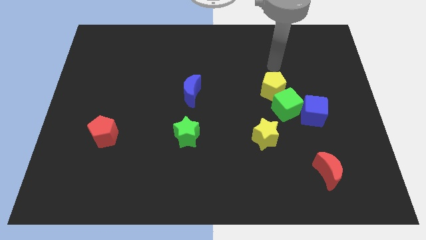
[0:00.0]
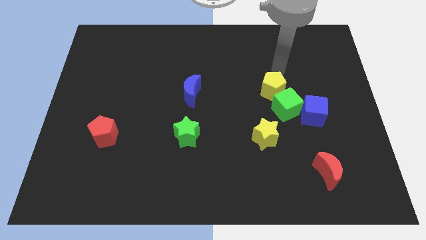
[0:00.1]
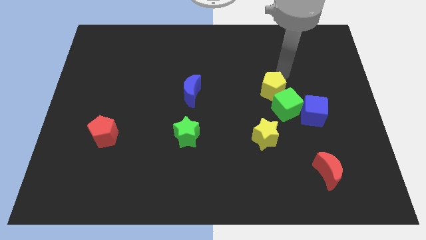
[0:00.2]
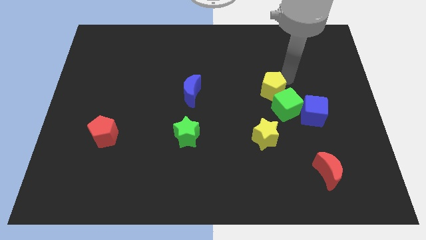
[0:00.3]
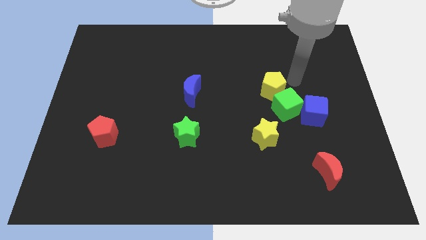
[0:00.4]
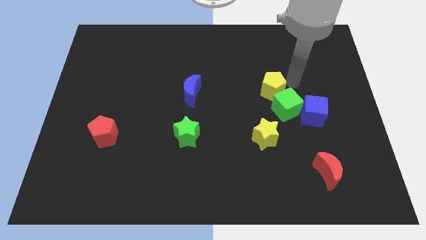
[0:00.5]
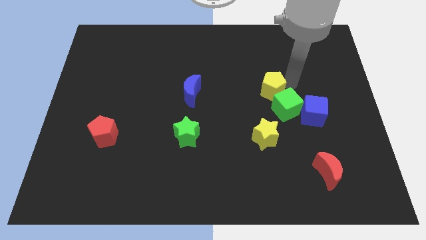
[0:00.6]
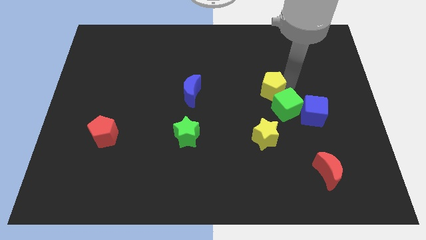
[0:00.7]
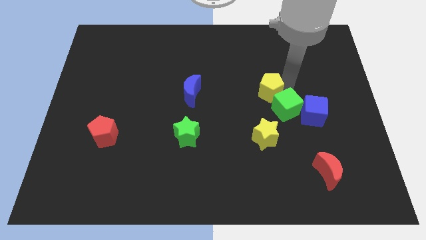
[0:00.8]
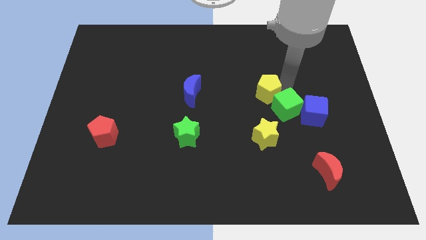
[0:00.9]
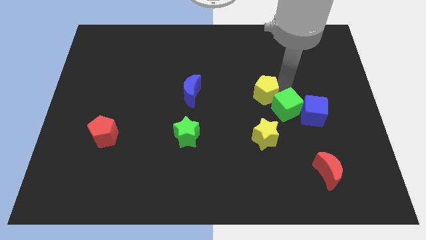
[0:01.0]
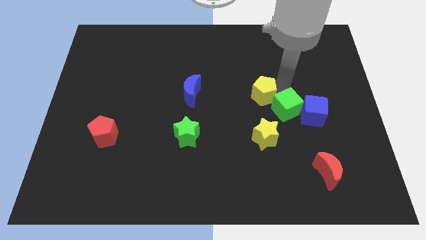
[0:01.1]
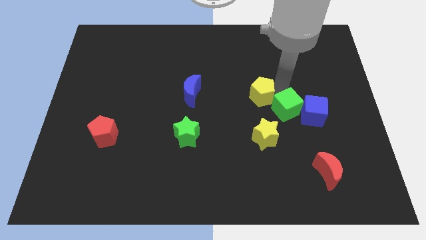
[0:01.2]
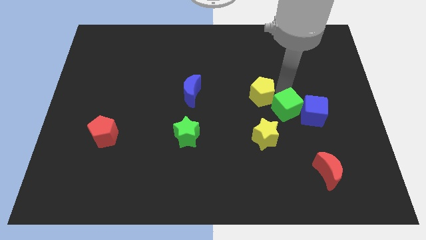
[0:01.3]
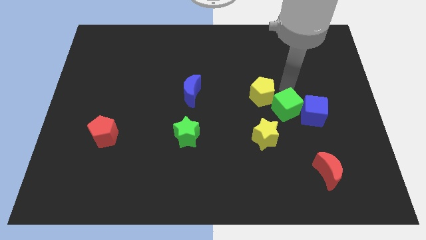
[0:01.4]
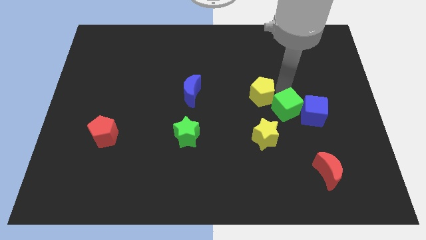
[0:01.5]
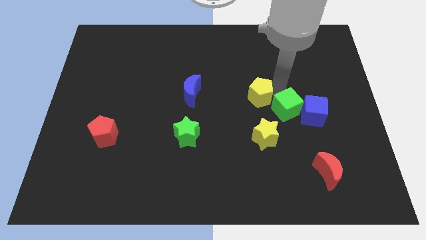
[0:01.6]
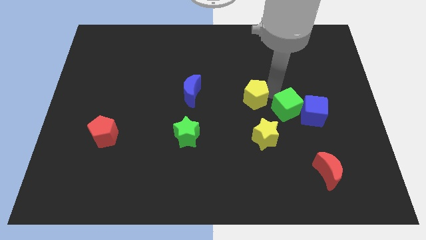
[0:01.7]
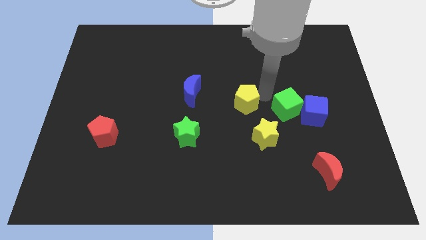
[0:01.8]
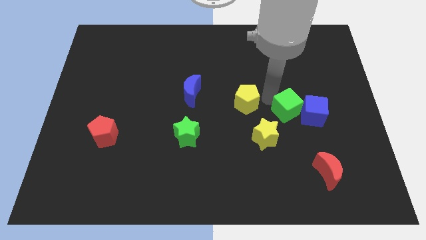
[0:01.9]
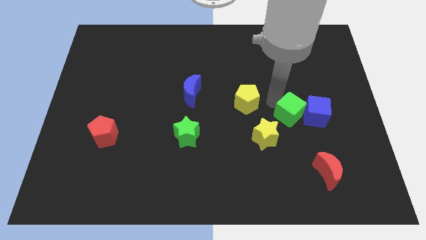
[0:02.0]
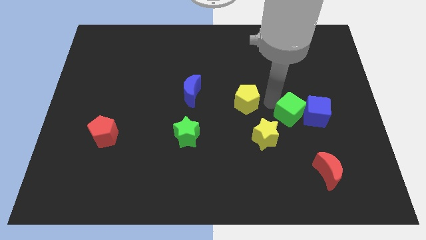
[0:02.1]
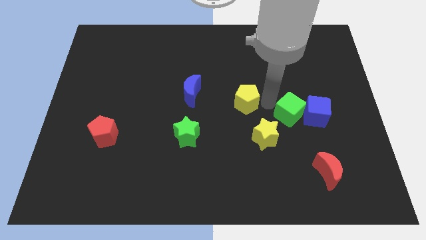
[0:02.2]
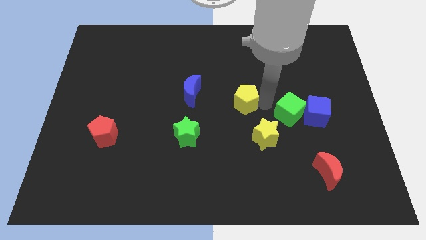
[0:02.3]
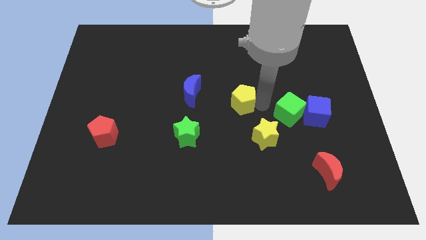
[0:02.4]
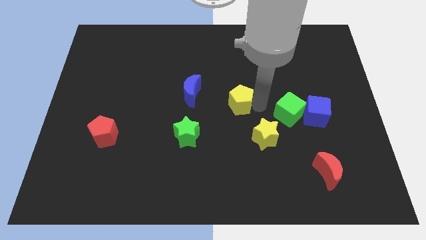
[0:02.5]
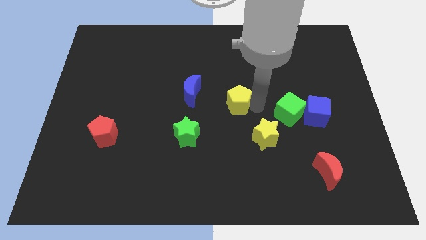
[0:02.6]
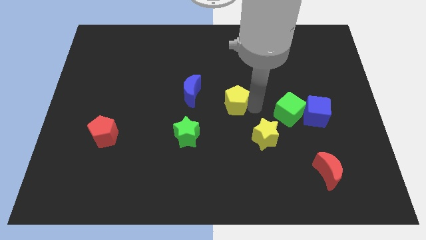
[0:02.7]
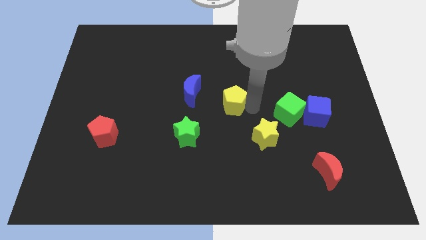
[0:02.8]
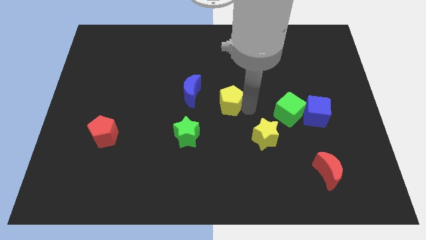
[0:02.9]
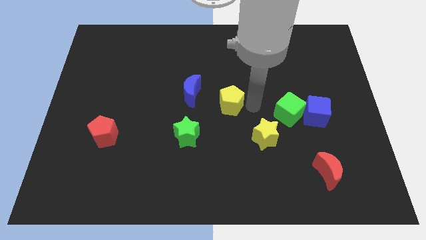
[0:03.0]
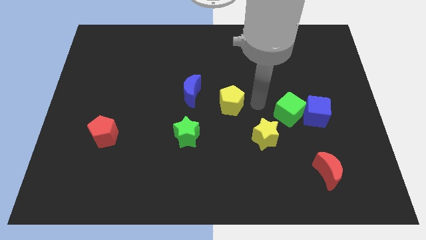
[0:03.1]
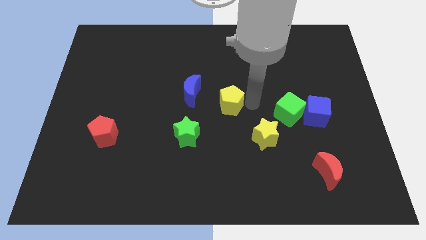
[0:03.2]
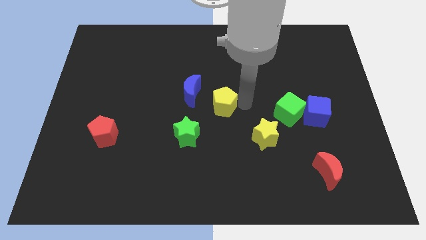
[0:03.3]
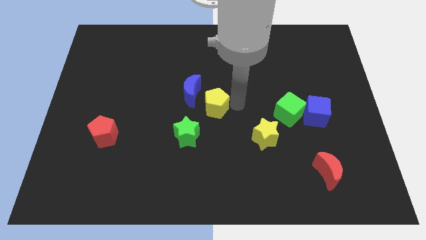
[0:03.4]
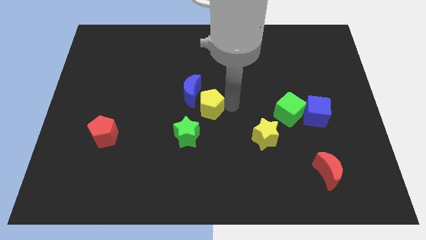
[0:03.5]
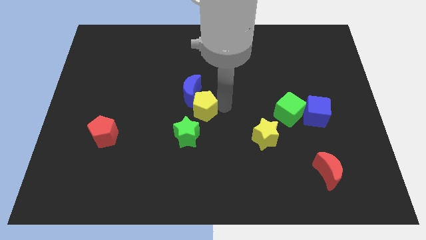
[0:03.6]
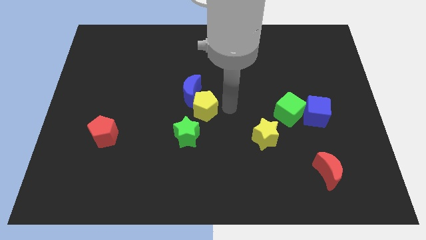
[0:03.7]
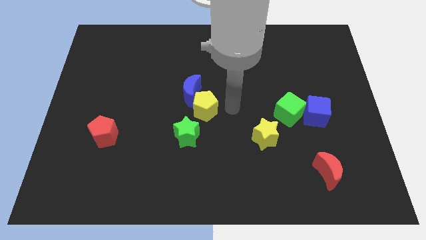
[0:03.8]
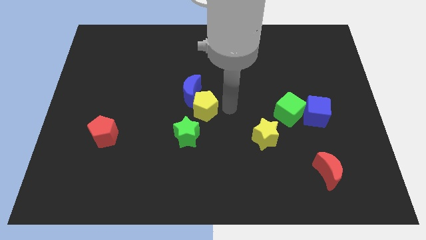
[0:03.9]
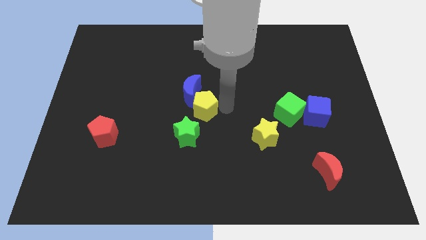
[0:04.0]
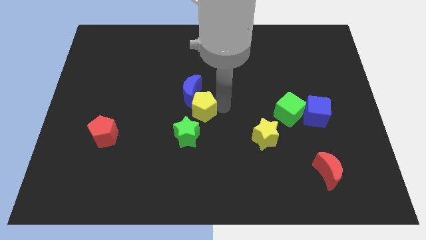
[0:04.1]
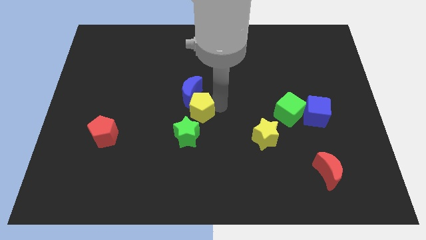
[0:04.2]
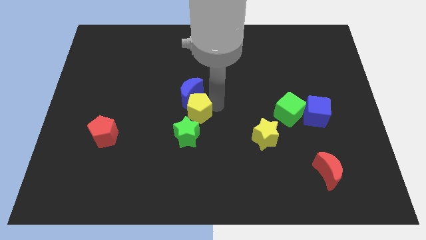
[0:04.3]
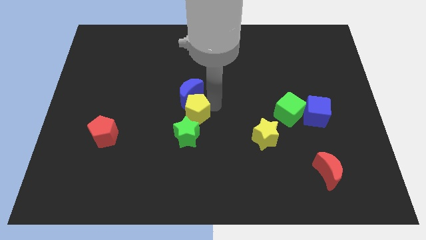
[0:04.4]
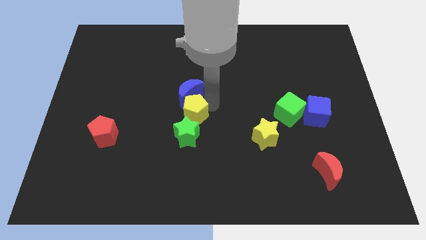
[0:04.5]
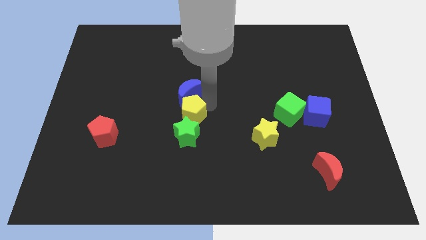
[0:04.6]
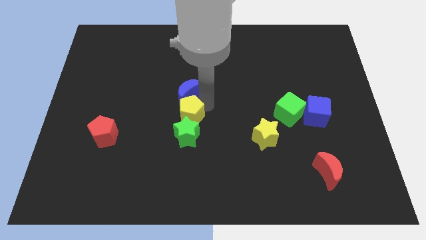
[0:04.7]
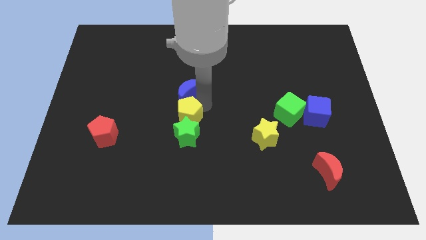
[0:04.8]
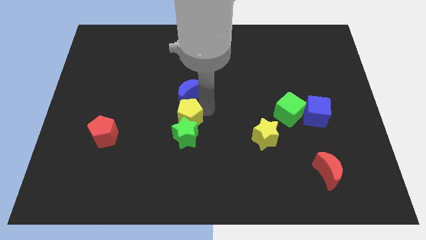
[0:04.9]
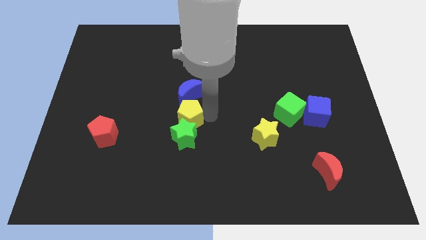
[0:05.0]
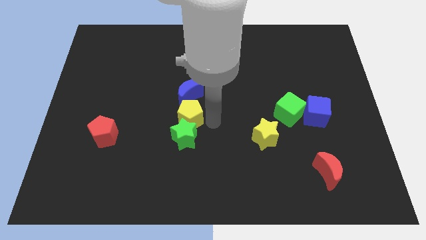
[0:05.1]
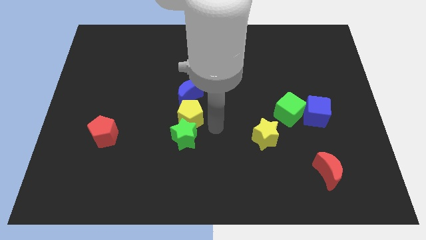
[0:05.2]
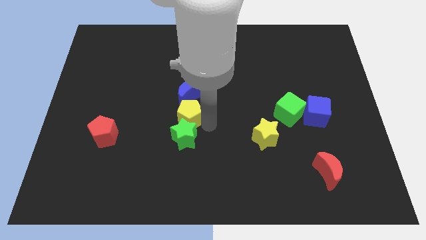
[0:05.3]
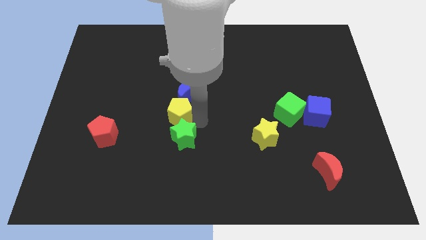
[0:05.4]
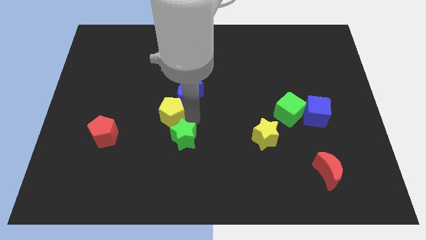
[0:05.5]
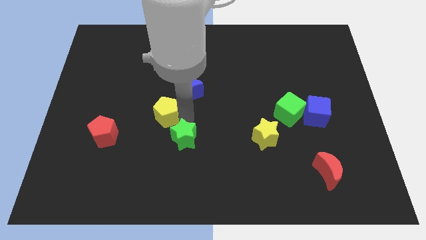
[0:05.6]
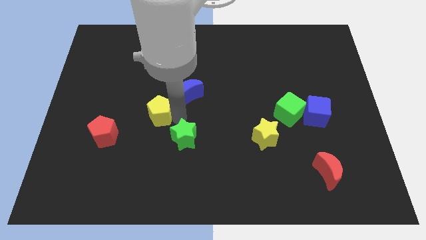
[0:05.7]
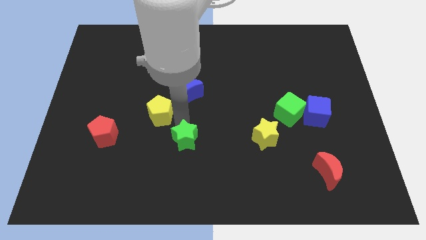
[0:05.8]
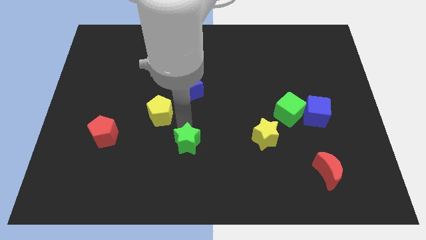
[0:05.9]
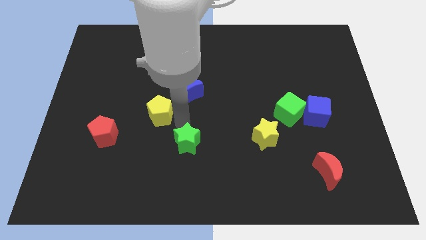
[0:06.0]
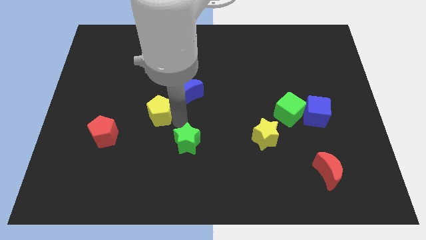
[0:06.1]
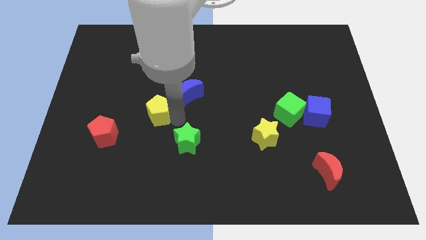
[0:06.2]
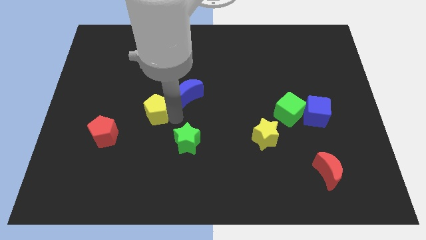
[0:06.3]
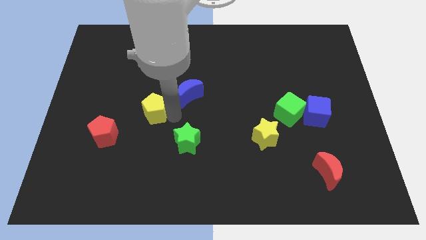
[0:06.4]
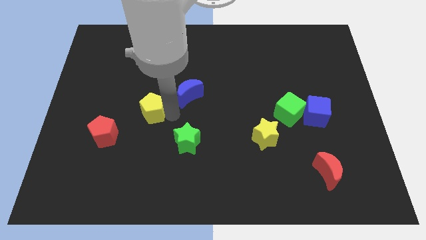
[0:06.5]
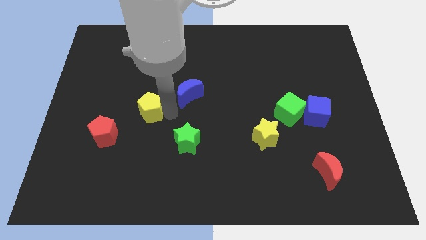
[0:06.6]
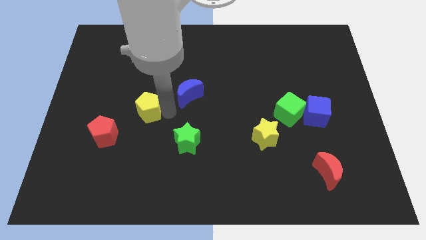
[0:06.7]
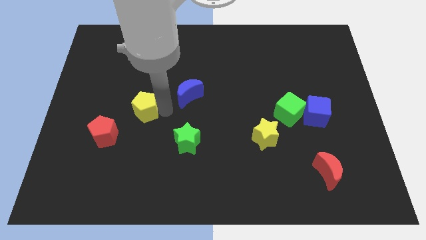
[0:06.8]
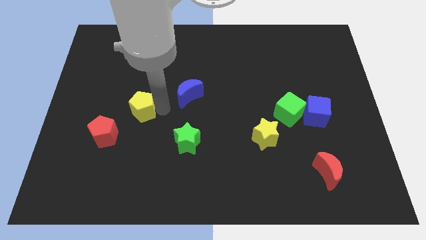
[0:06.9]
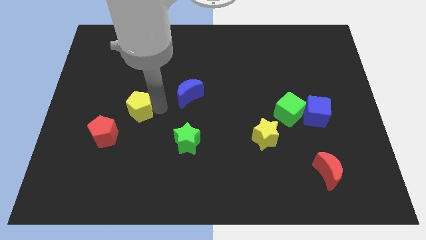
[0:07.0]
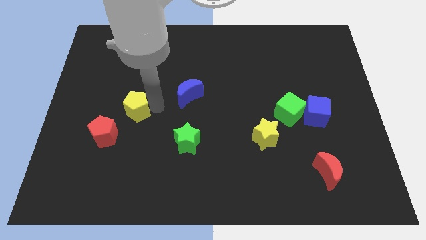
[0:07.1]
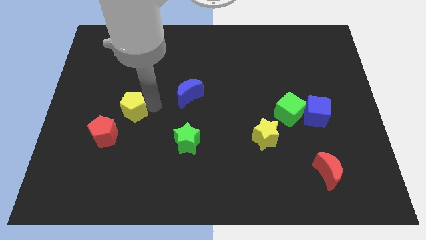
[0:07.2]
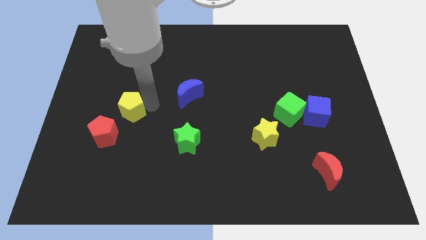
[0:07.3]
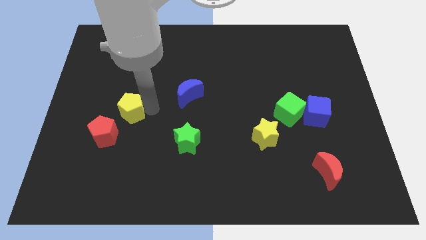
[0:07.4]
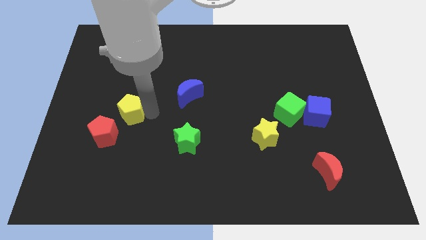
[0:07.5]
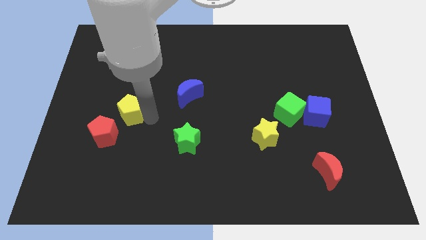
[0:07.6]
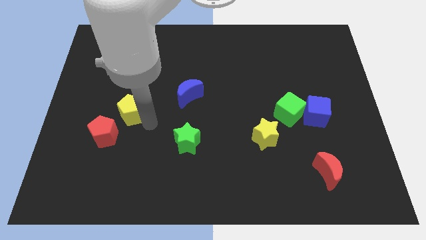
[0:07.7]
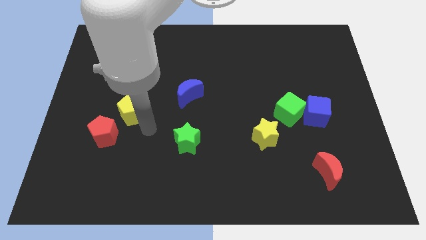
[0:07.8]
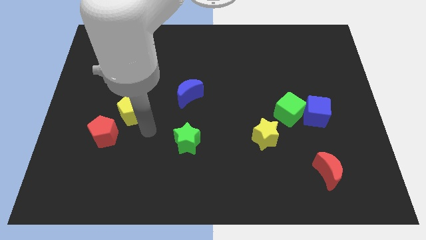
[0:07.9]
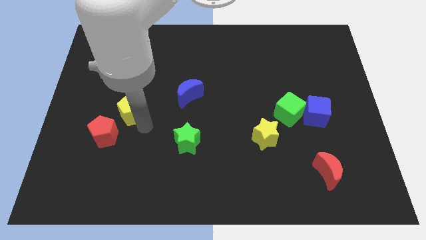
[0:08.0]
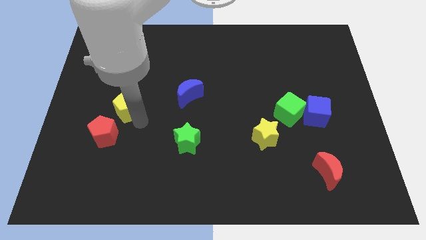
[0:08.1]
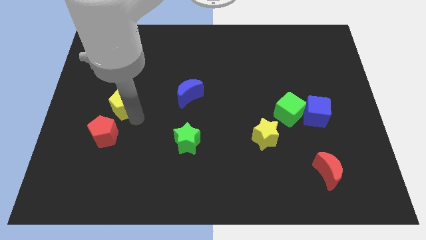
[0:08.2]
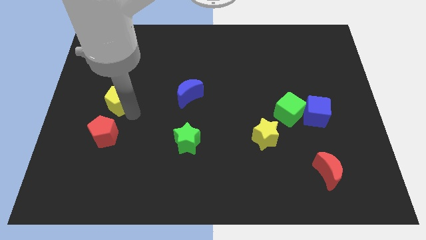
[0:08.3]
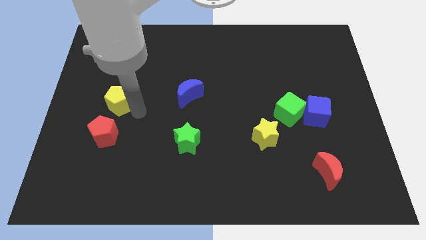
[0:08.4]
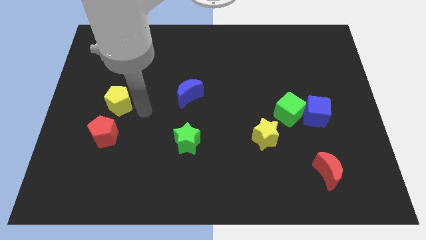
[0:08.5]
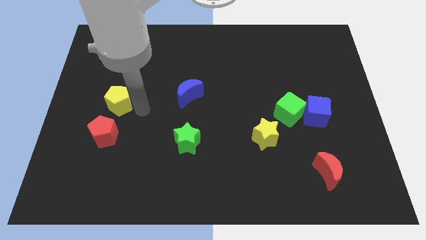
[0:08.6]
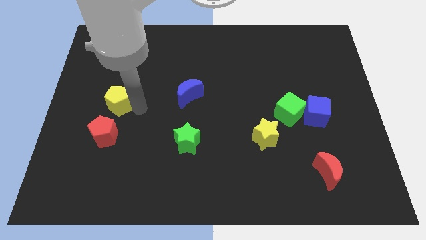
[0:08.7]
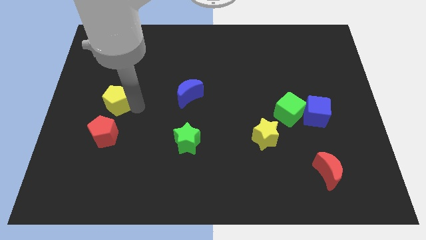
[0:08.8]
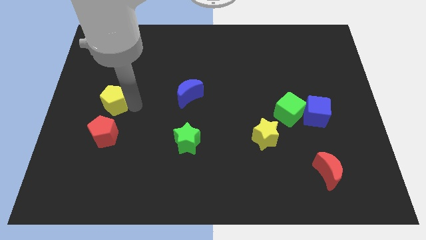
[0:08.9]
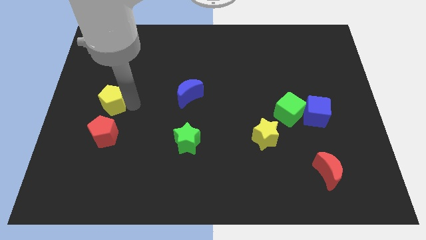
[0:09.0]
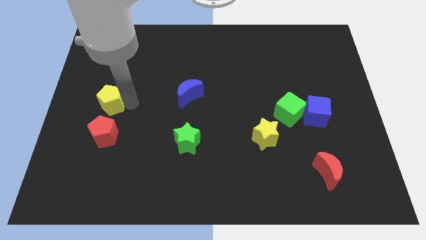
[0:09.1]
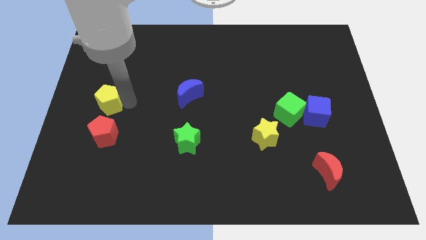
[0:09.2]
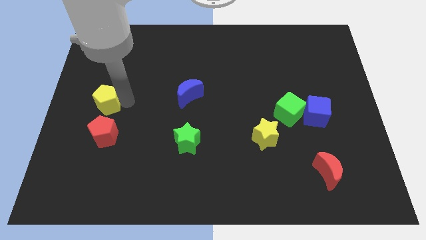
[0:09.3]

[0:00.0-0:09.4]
put the yellow pentagon to the center left
